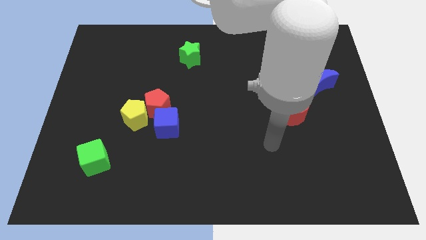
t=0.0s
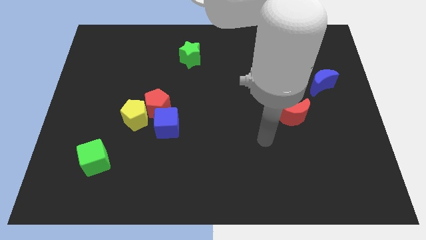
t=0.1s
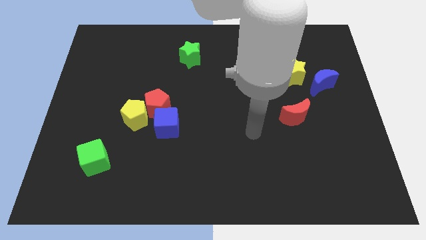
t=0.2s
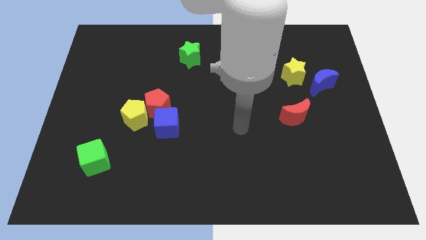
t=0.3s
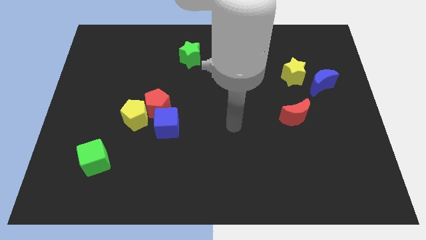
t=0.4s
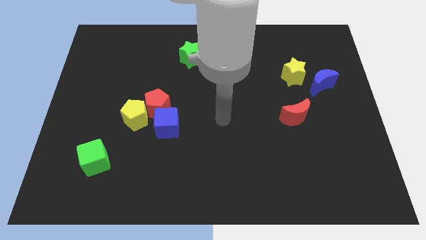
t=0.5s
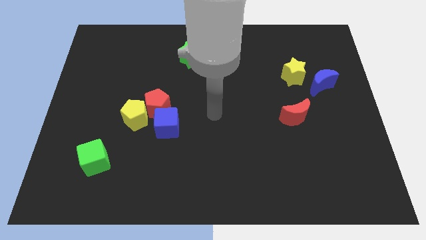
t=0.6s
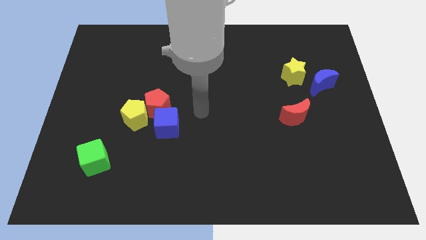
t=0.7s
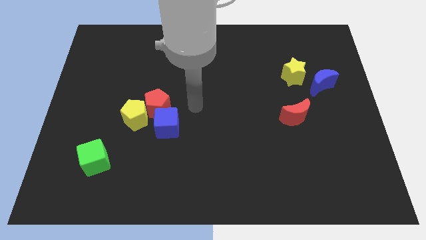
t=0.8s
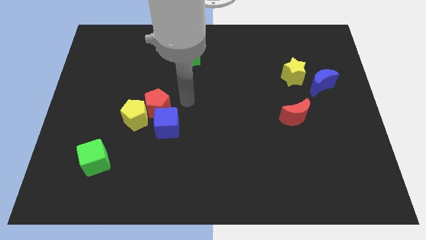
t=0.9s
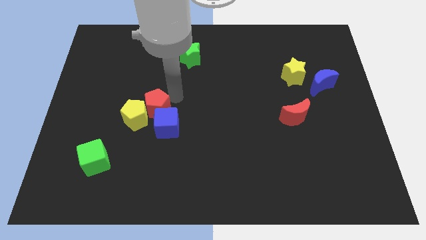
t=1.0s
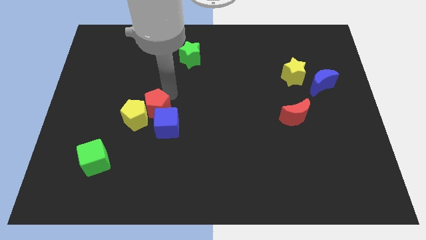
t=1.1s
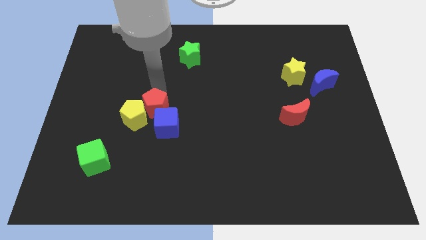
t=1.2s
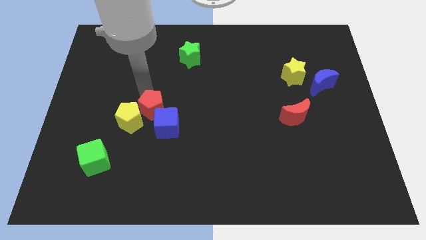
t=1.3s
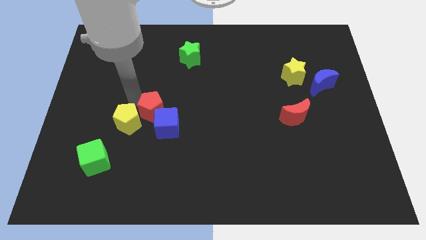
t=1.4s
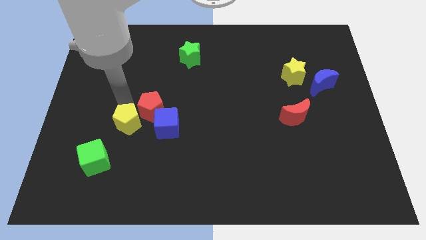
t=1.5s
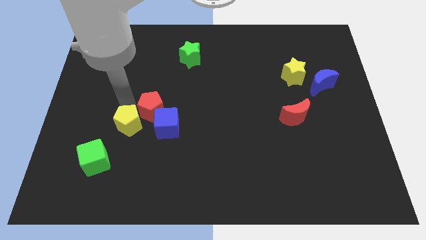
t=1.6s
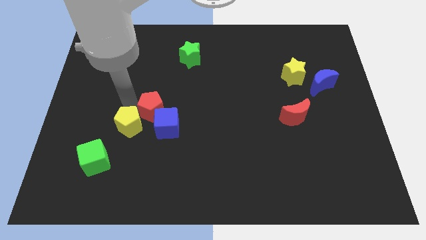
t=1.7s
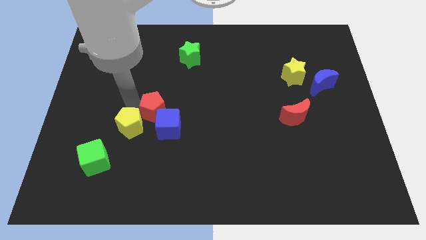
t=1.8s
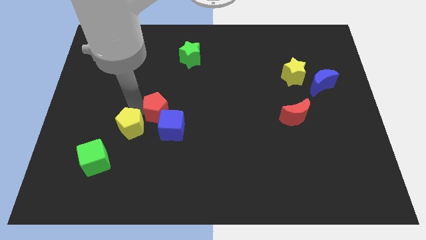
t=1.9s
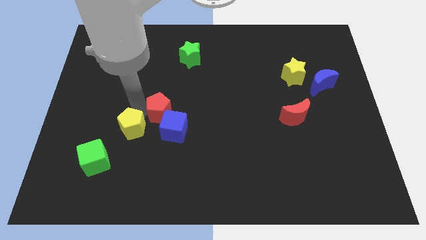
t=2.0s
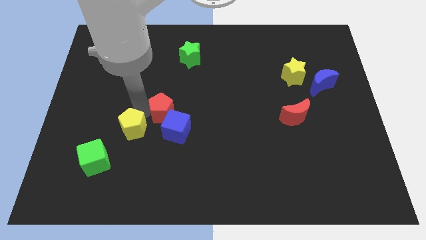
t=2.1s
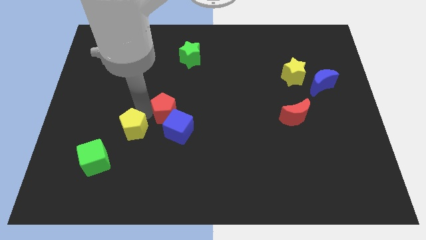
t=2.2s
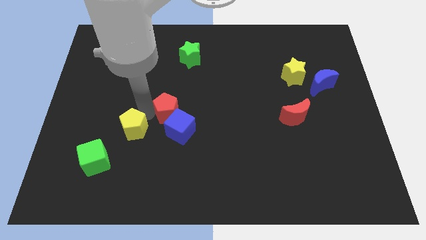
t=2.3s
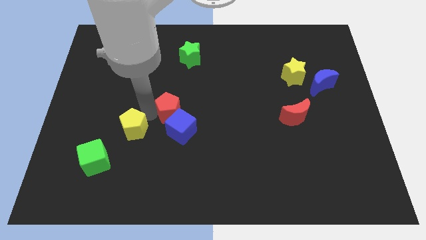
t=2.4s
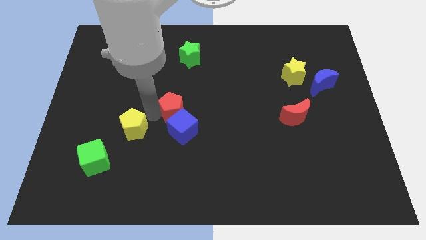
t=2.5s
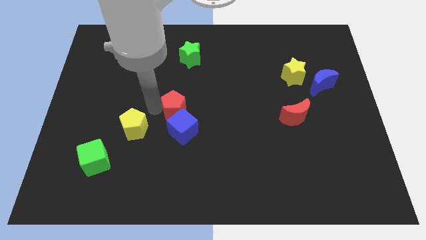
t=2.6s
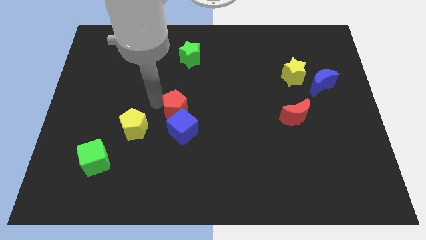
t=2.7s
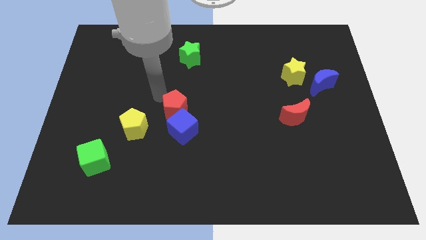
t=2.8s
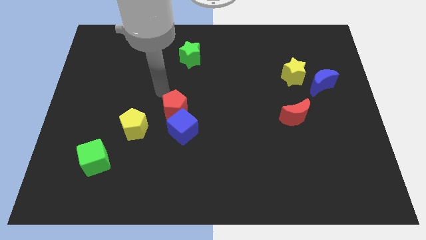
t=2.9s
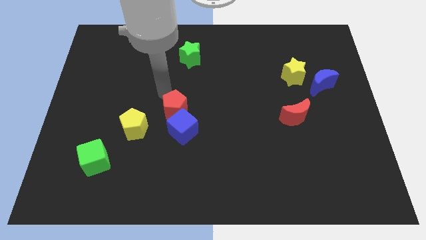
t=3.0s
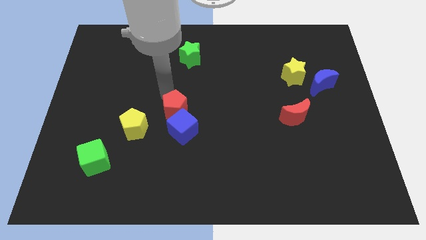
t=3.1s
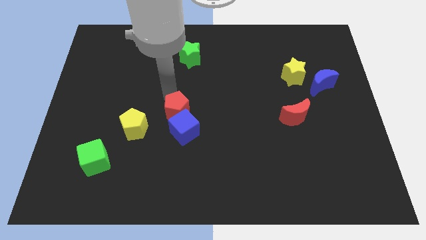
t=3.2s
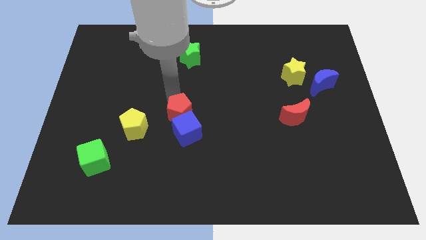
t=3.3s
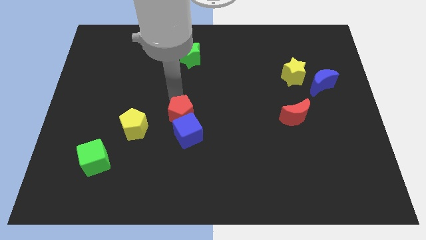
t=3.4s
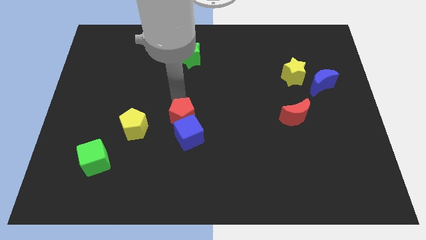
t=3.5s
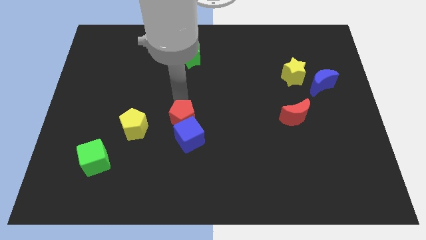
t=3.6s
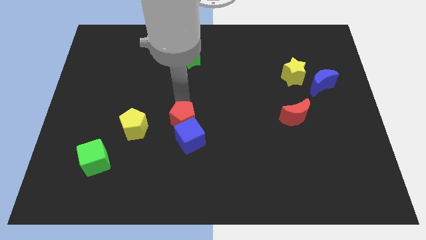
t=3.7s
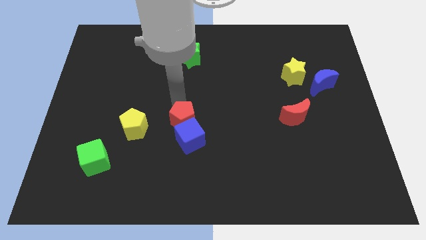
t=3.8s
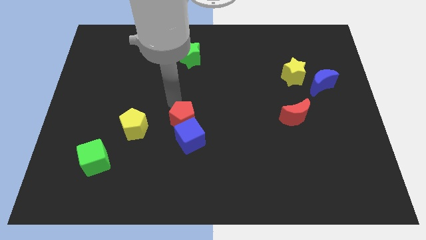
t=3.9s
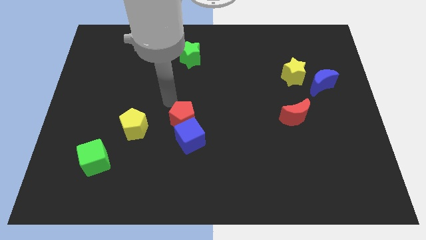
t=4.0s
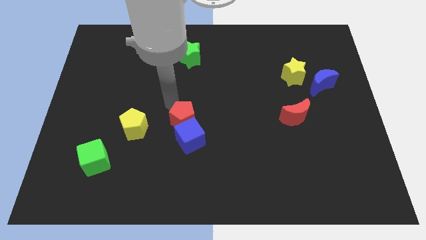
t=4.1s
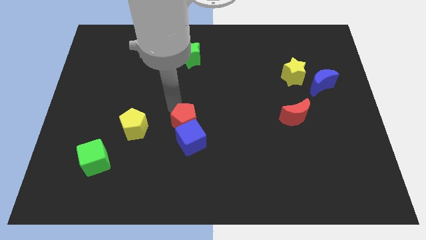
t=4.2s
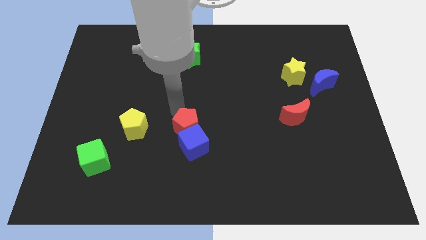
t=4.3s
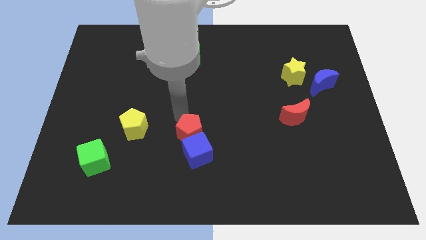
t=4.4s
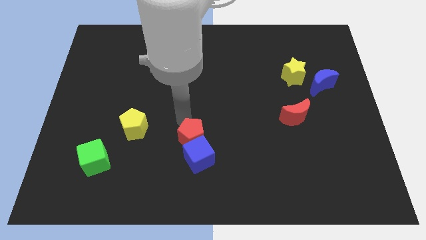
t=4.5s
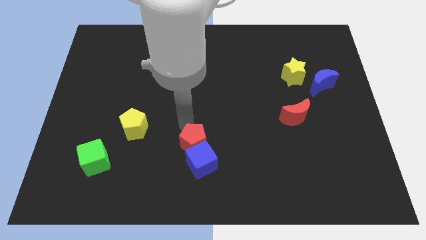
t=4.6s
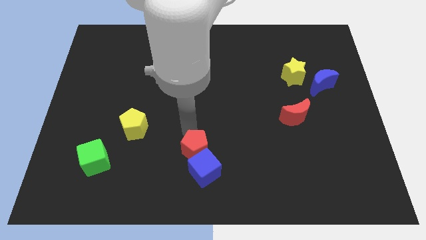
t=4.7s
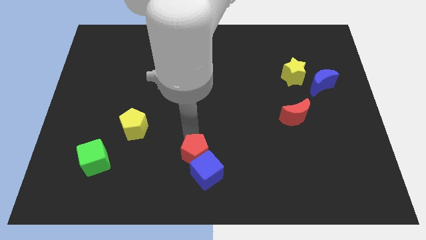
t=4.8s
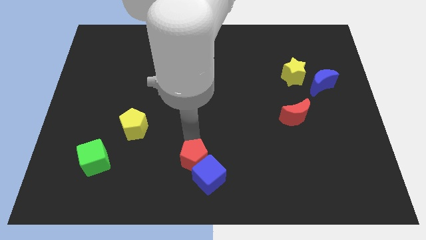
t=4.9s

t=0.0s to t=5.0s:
put the red pentagon to the bottom side

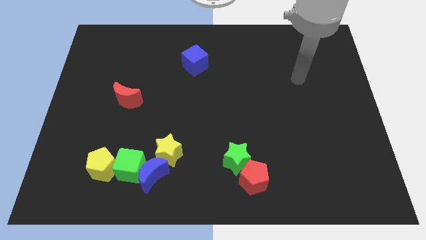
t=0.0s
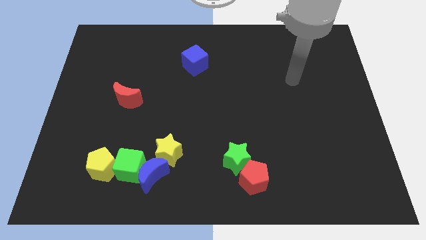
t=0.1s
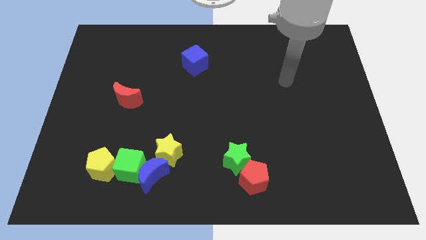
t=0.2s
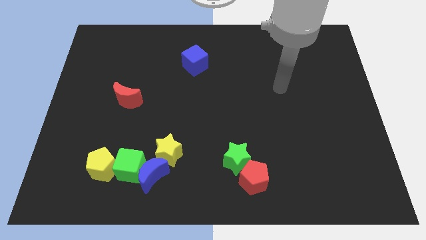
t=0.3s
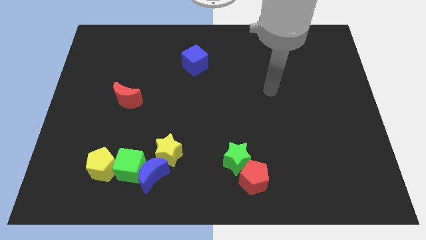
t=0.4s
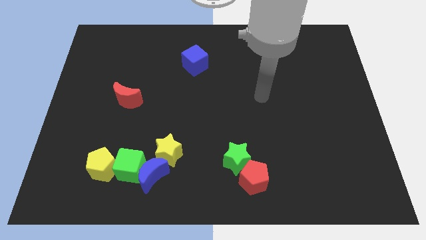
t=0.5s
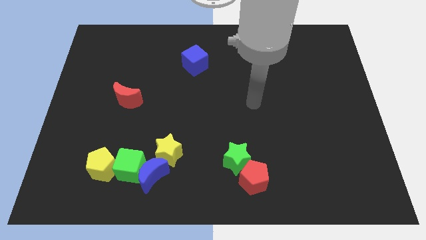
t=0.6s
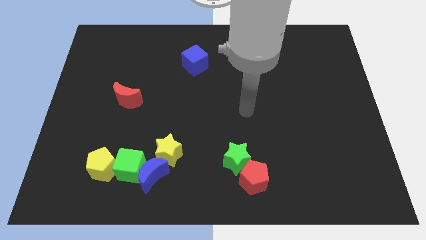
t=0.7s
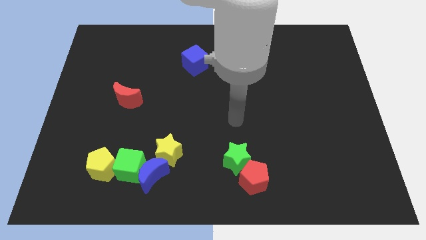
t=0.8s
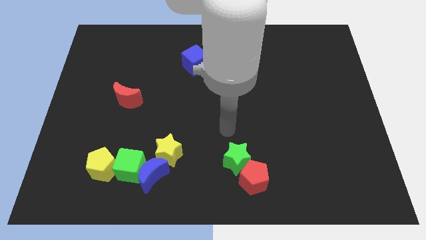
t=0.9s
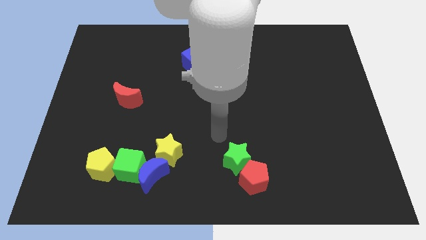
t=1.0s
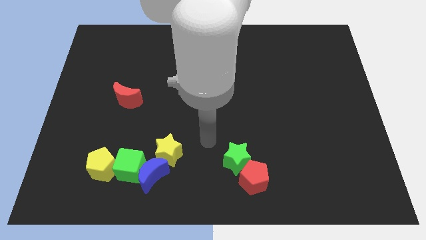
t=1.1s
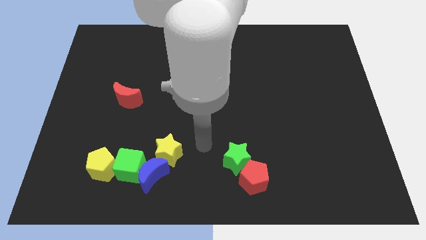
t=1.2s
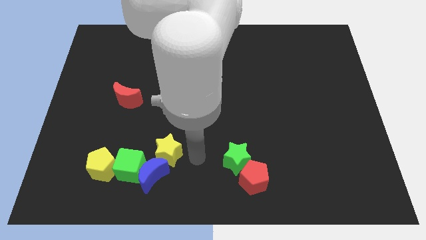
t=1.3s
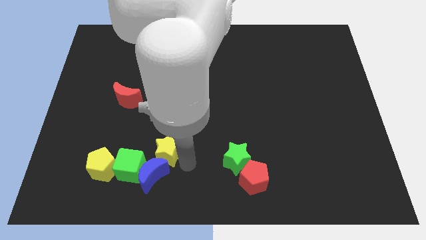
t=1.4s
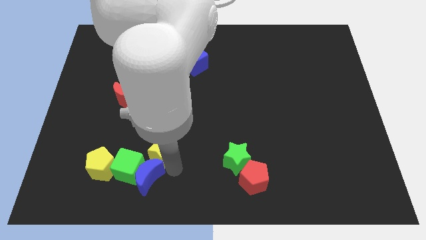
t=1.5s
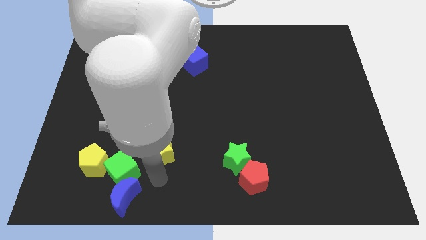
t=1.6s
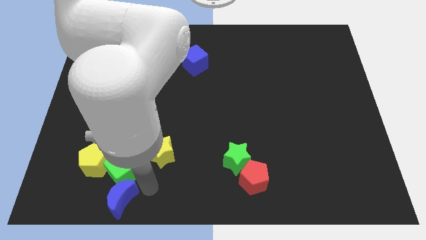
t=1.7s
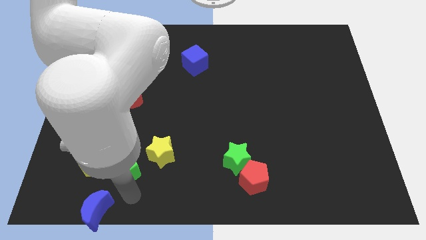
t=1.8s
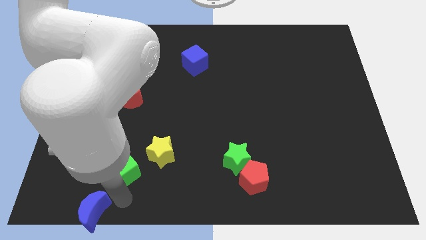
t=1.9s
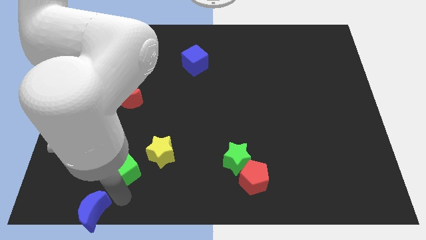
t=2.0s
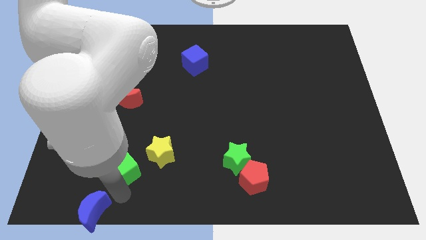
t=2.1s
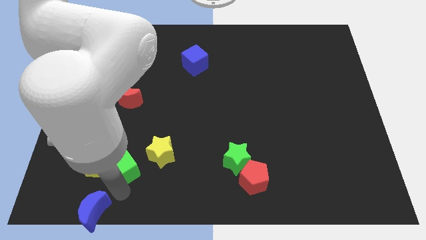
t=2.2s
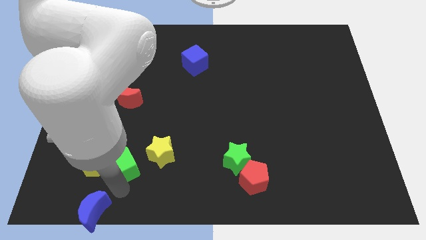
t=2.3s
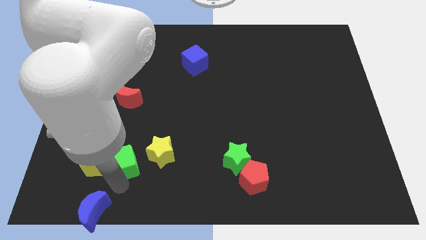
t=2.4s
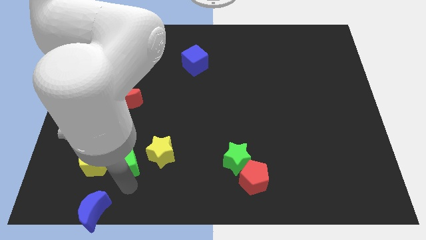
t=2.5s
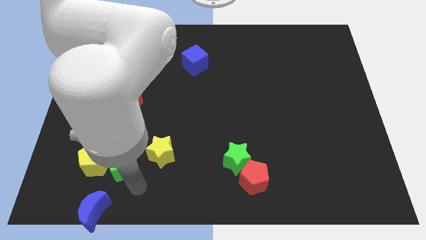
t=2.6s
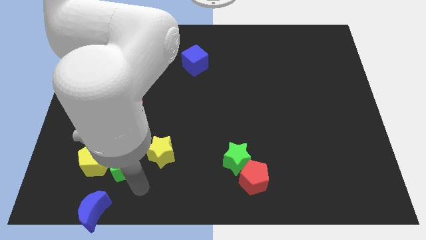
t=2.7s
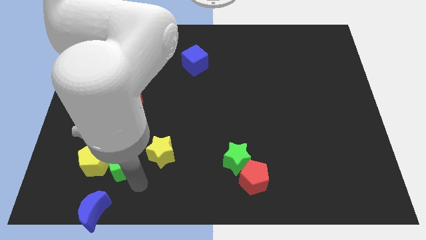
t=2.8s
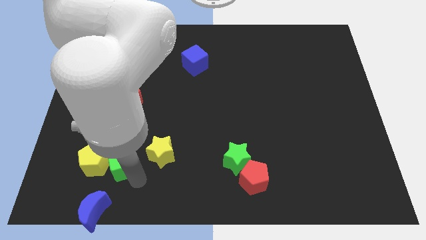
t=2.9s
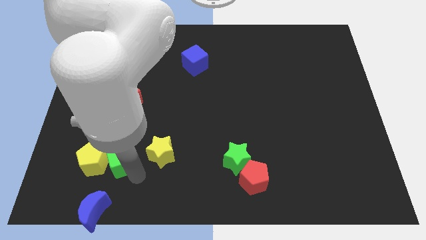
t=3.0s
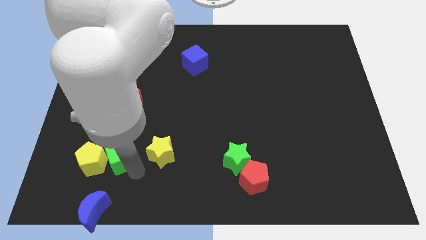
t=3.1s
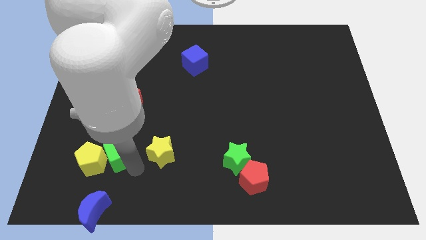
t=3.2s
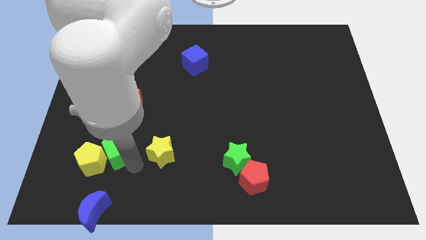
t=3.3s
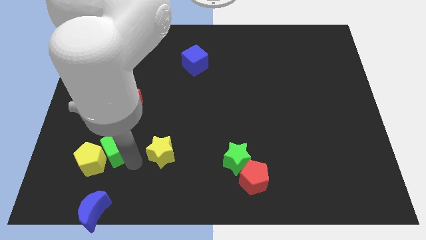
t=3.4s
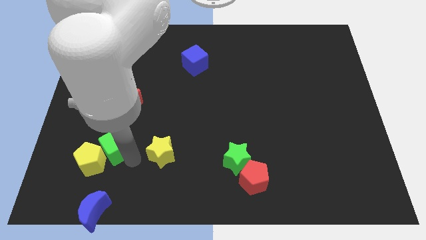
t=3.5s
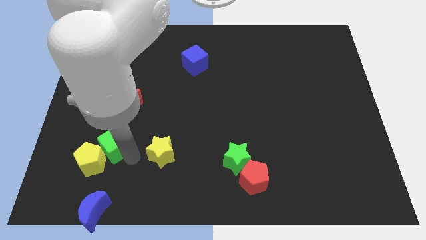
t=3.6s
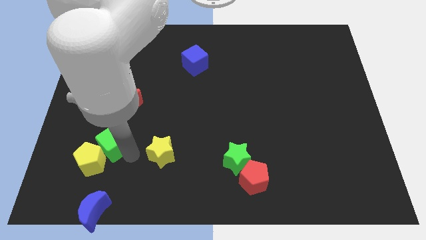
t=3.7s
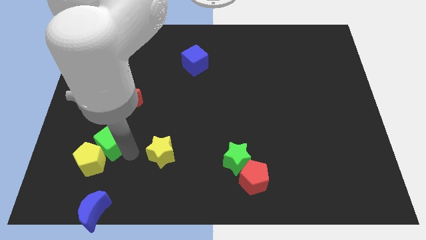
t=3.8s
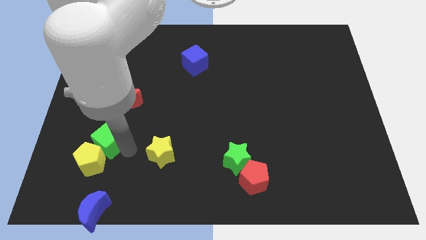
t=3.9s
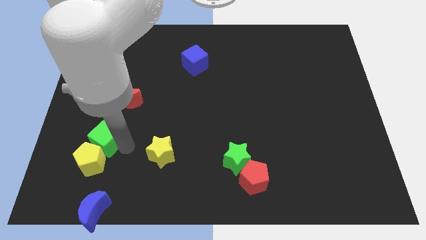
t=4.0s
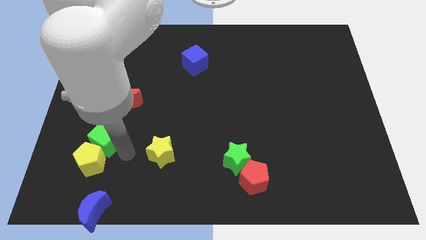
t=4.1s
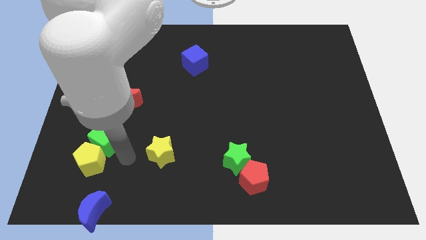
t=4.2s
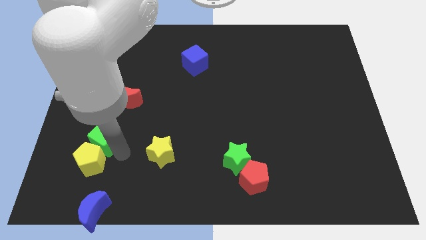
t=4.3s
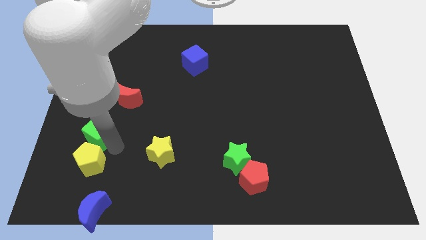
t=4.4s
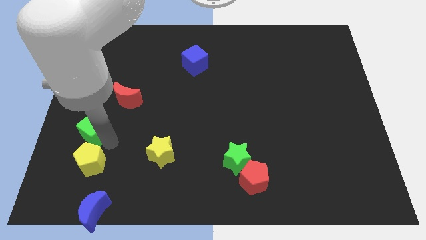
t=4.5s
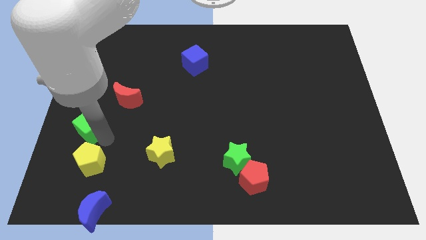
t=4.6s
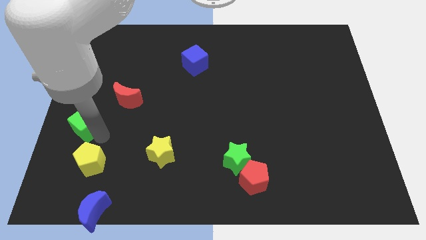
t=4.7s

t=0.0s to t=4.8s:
push the green cube to the left side of the board
